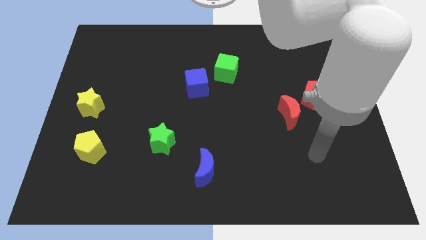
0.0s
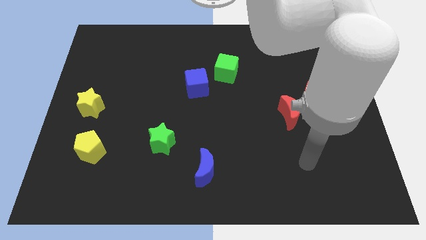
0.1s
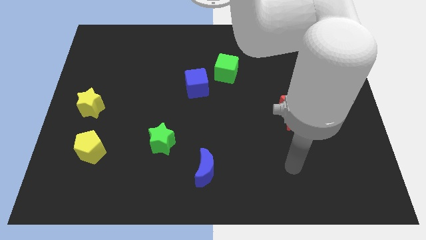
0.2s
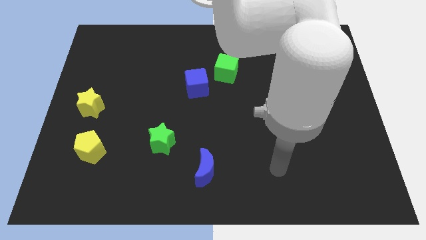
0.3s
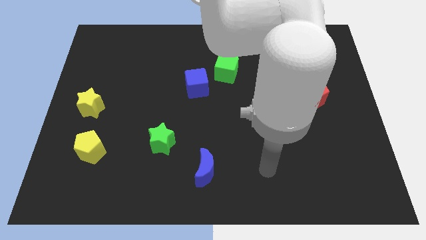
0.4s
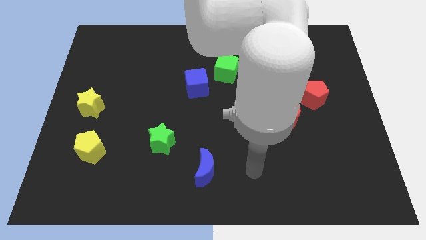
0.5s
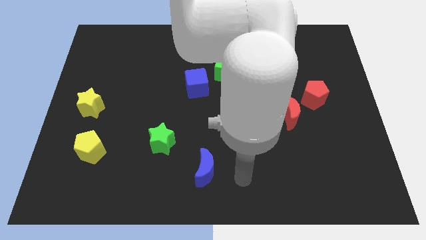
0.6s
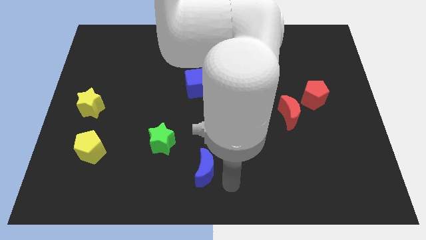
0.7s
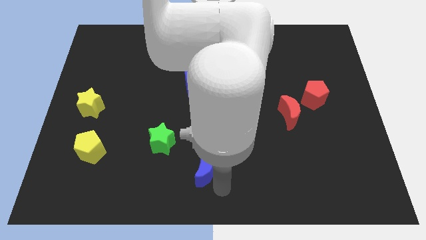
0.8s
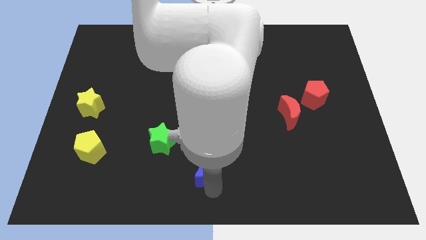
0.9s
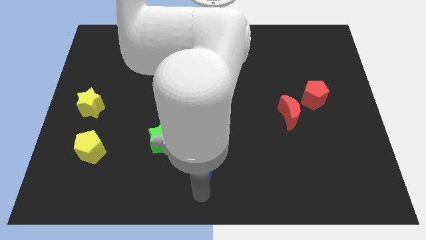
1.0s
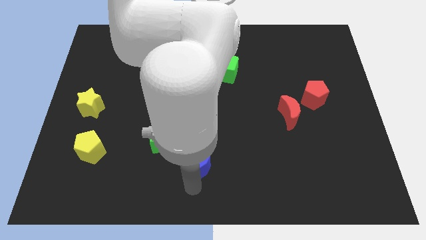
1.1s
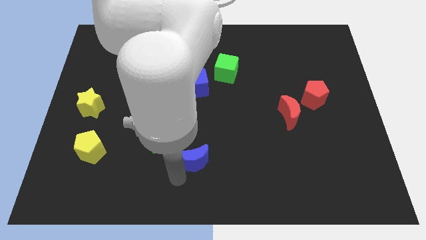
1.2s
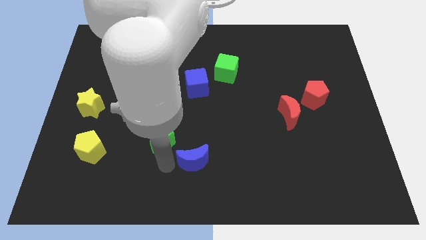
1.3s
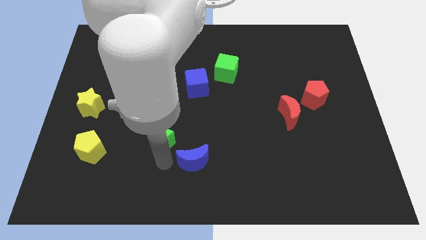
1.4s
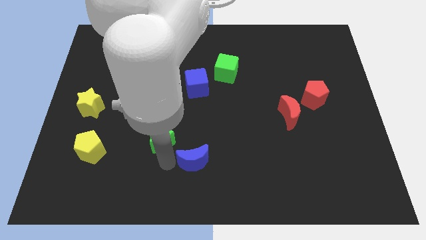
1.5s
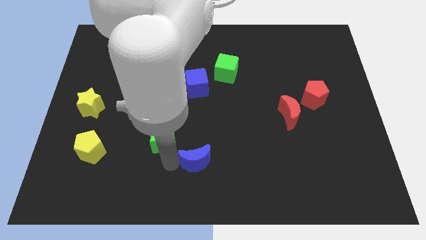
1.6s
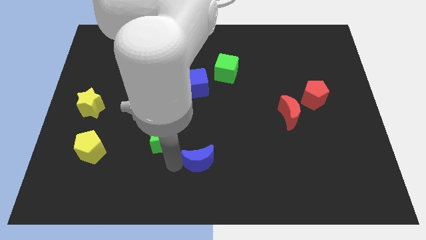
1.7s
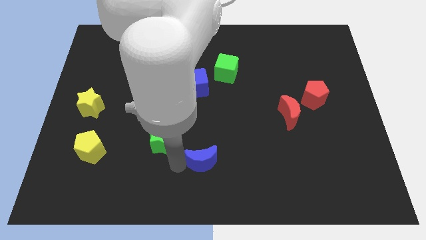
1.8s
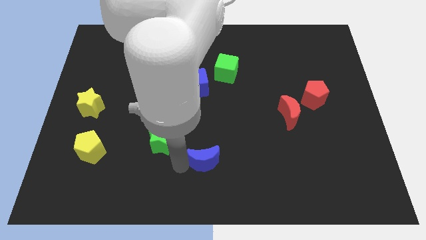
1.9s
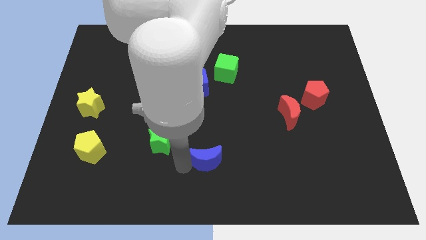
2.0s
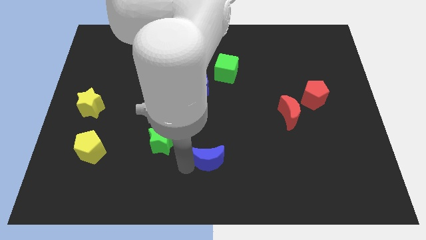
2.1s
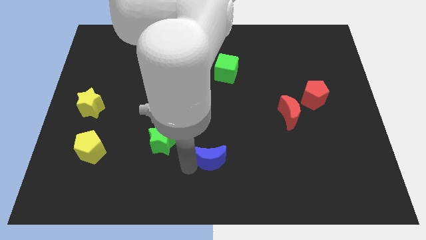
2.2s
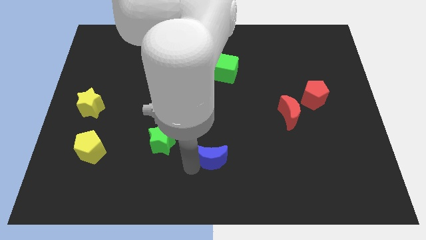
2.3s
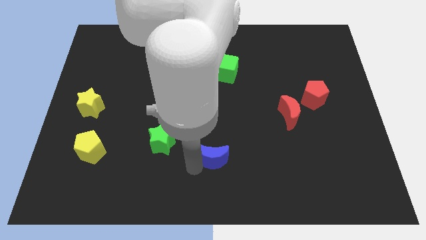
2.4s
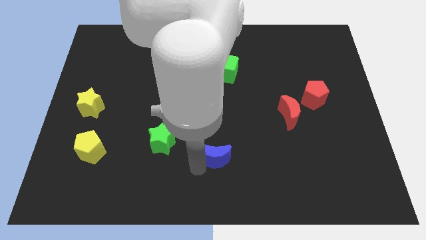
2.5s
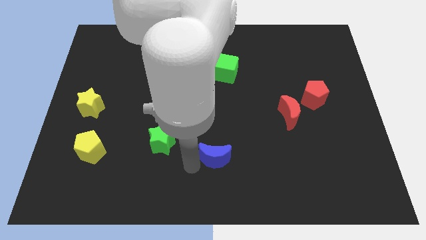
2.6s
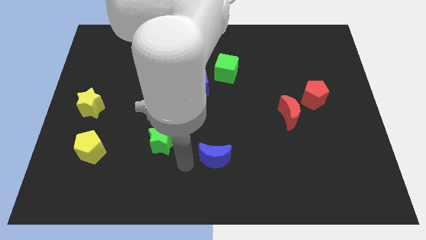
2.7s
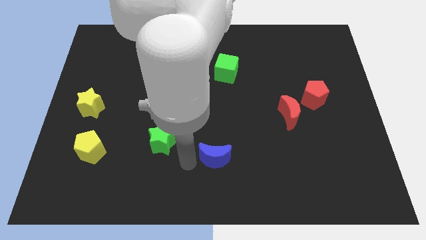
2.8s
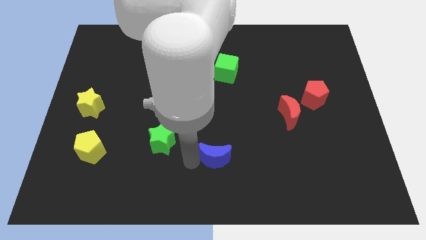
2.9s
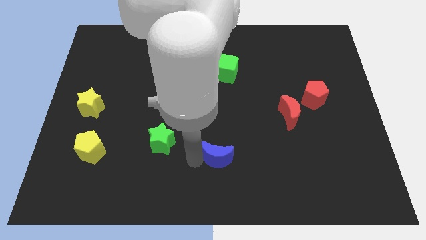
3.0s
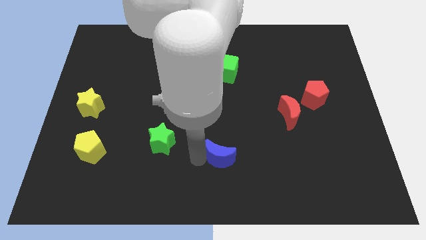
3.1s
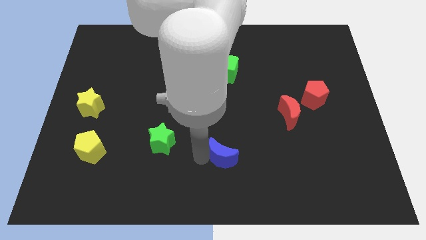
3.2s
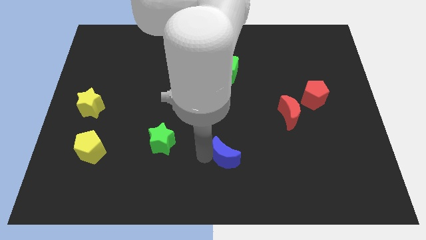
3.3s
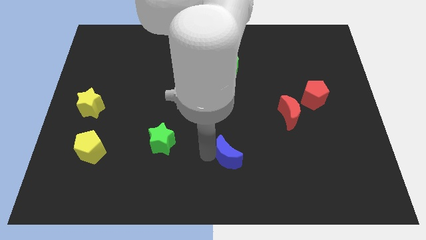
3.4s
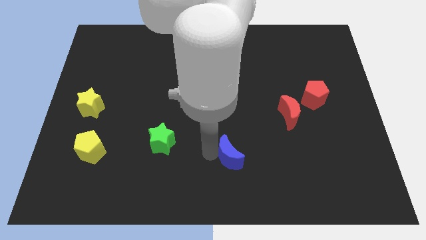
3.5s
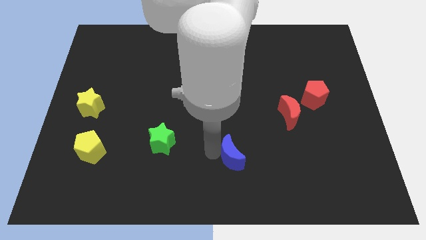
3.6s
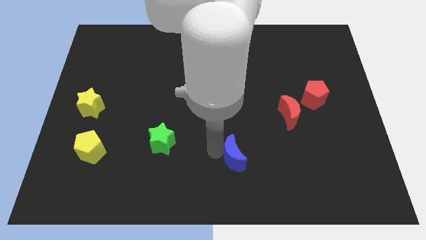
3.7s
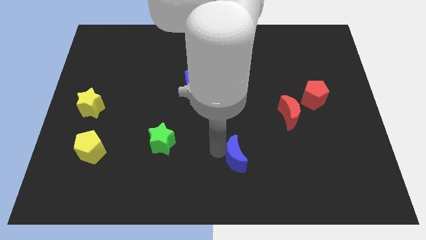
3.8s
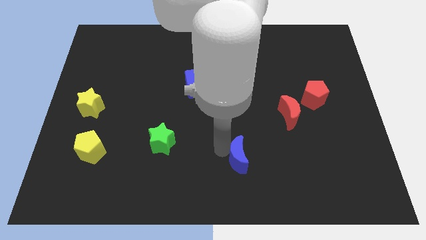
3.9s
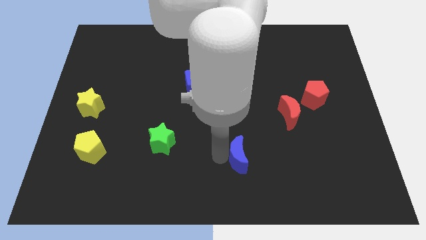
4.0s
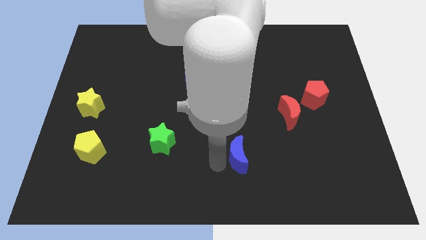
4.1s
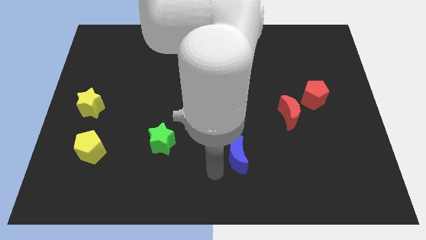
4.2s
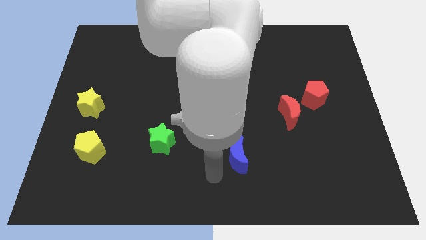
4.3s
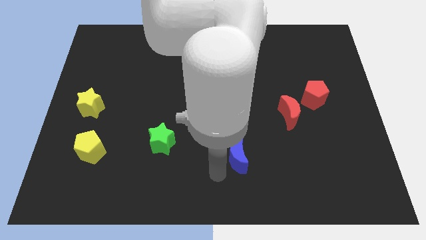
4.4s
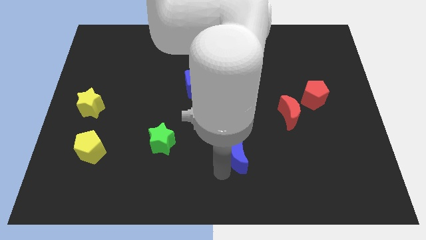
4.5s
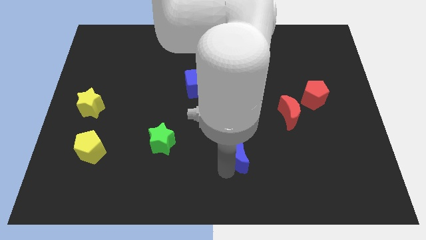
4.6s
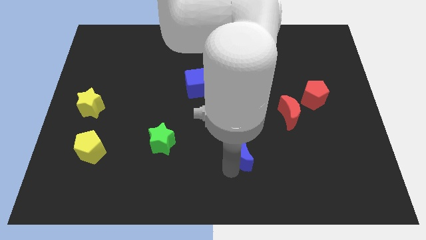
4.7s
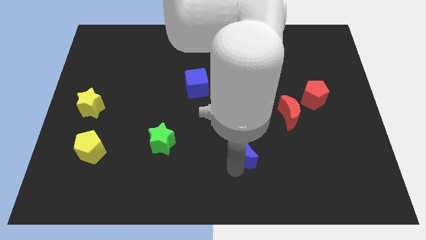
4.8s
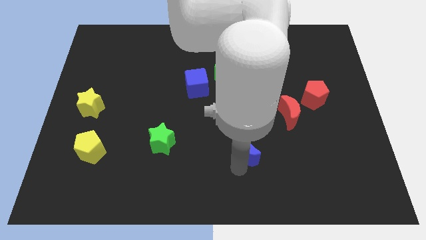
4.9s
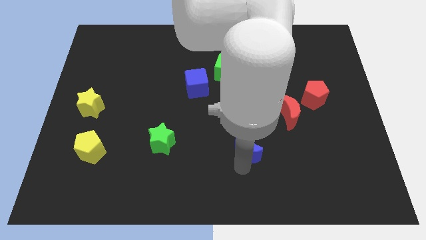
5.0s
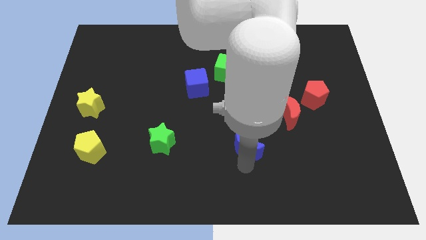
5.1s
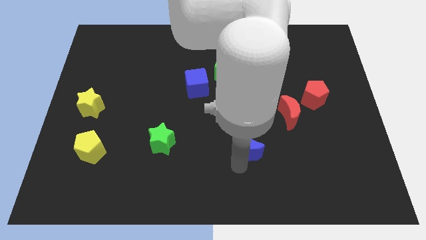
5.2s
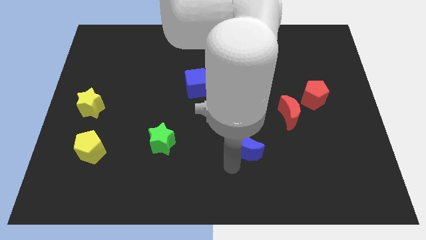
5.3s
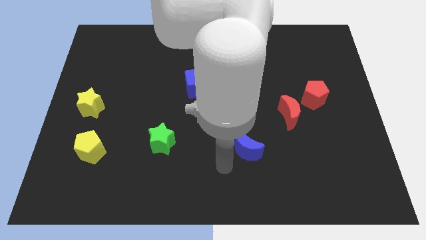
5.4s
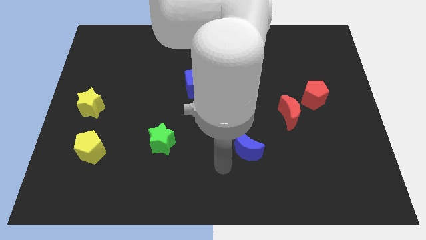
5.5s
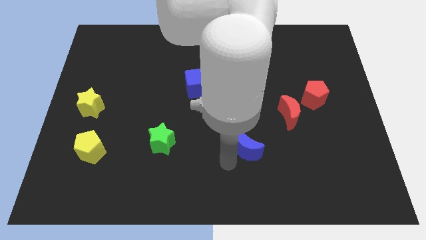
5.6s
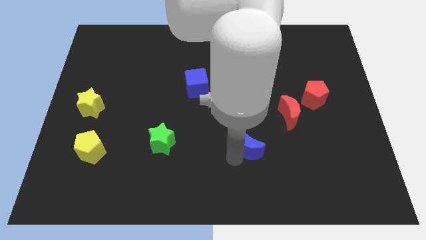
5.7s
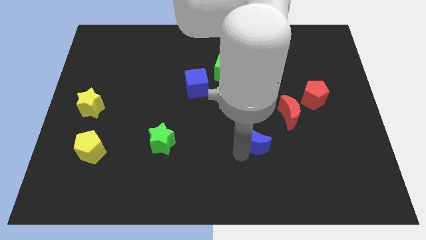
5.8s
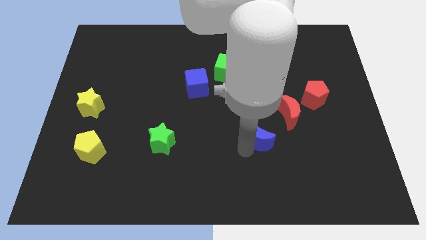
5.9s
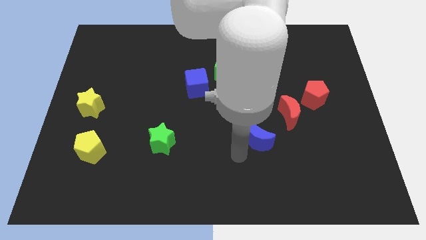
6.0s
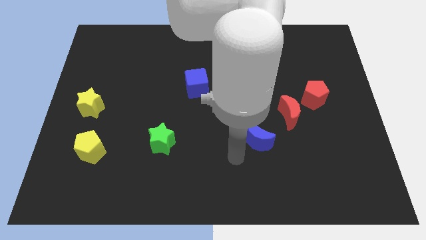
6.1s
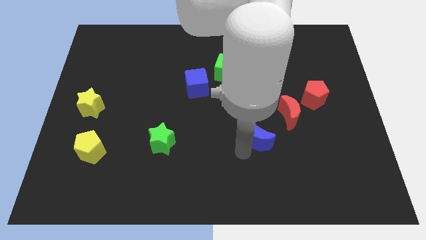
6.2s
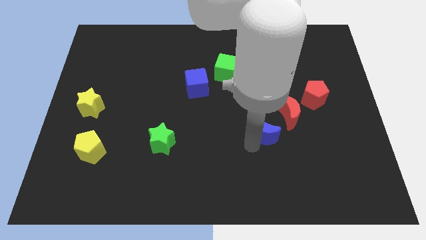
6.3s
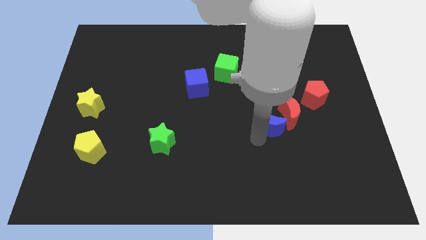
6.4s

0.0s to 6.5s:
push the blue moon close to the red moon

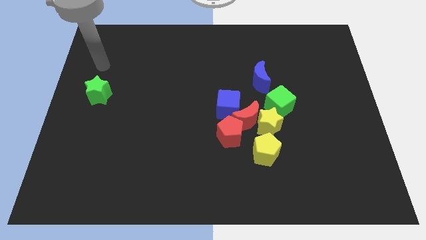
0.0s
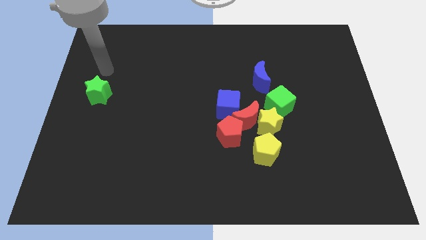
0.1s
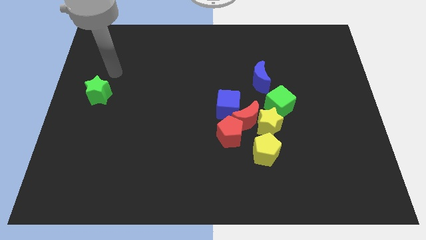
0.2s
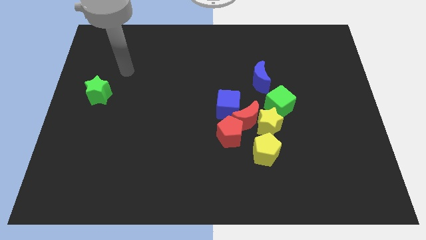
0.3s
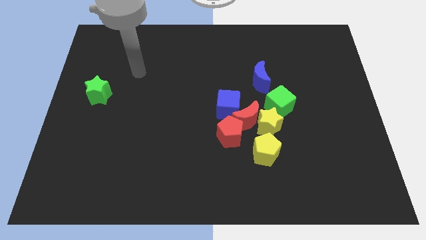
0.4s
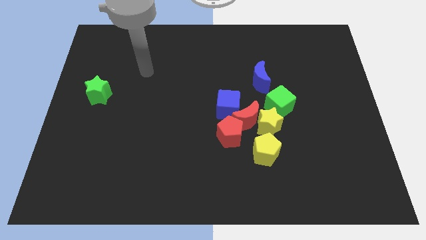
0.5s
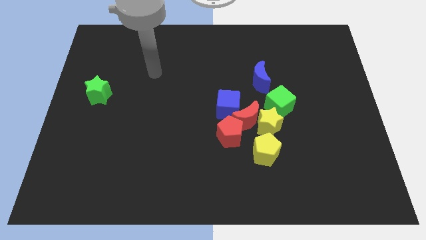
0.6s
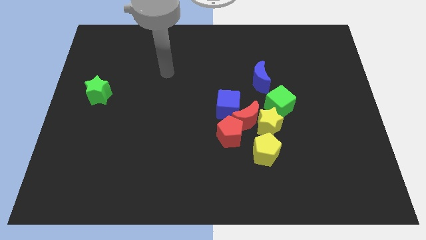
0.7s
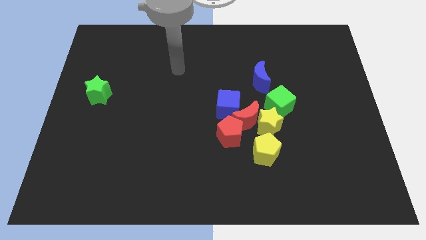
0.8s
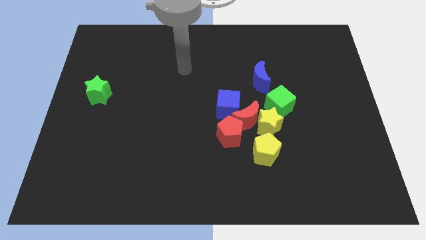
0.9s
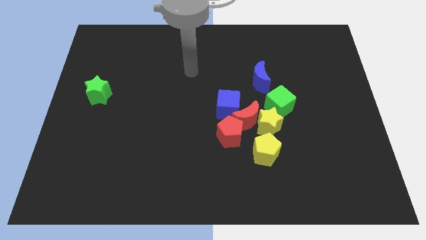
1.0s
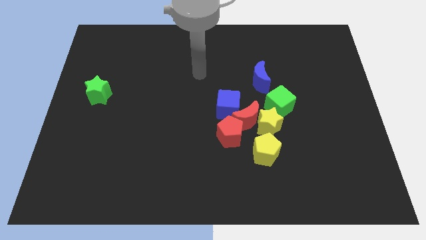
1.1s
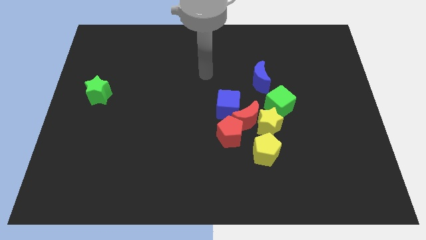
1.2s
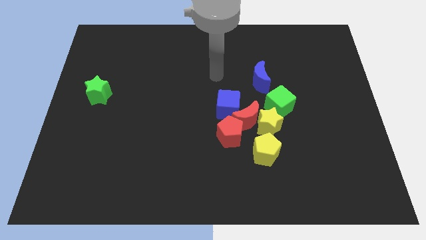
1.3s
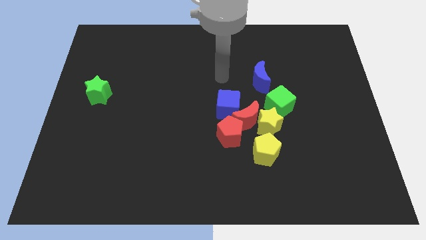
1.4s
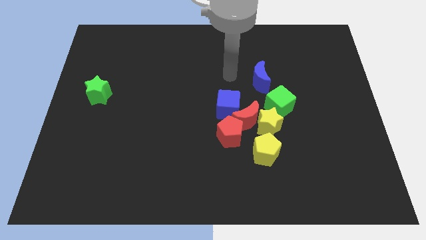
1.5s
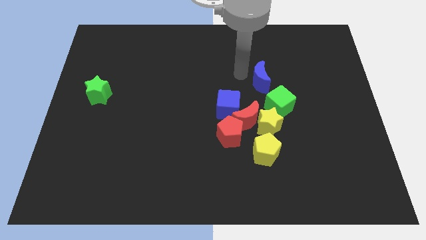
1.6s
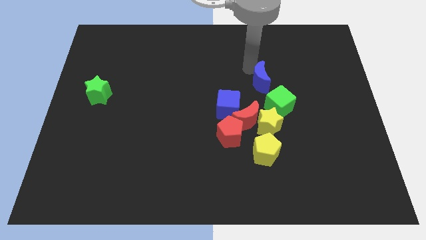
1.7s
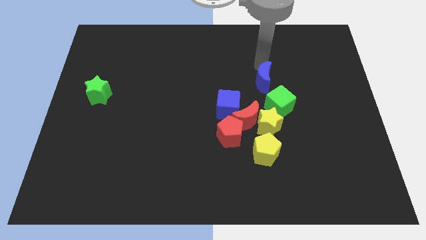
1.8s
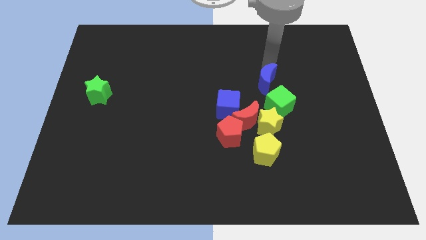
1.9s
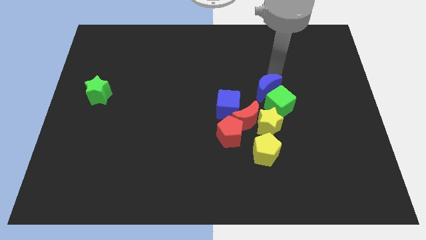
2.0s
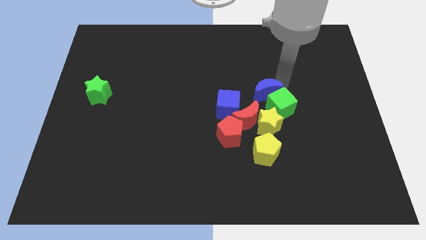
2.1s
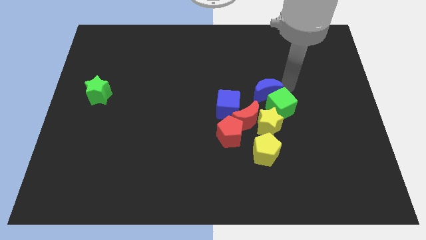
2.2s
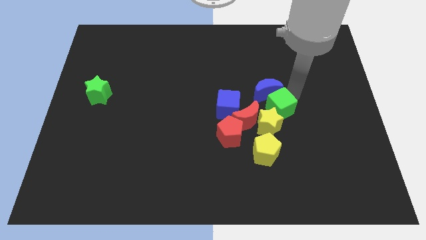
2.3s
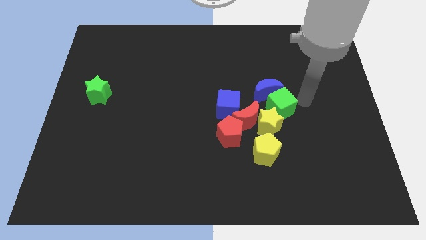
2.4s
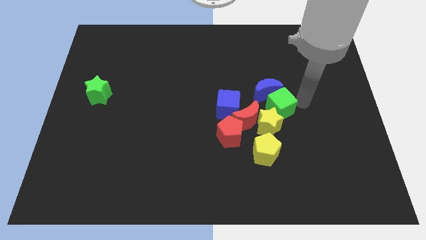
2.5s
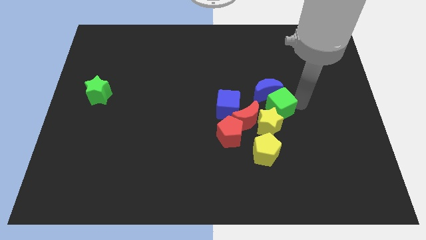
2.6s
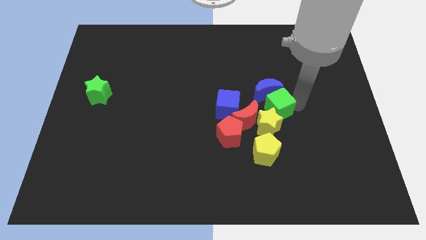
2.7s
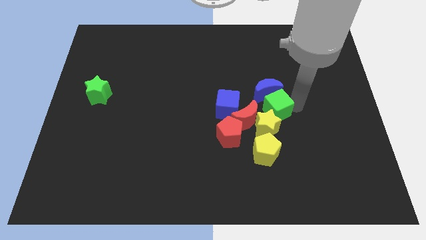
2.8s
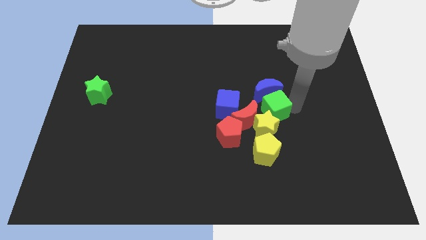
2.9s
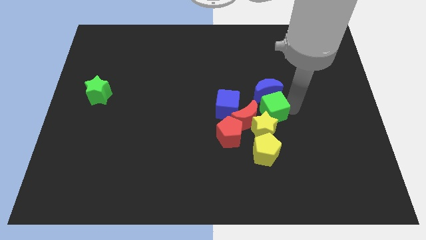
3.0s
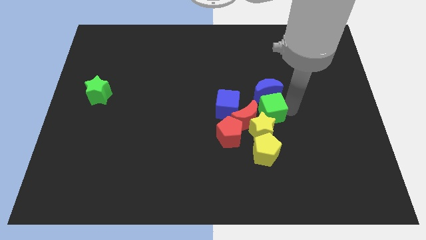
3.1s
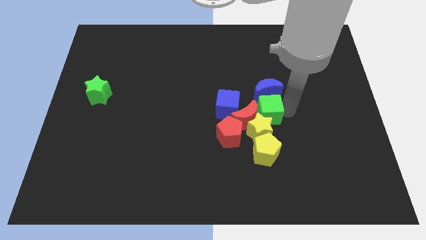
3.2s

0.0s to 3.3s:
put the green cube to the red moon
